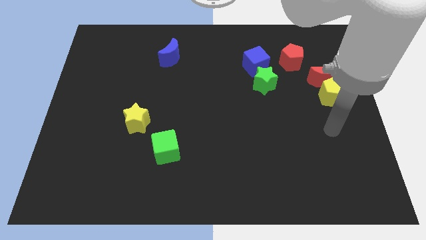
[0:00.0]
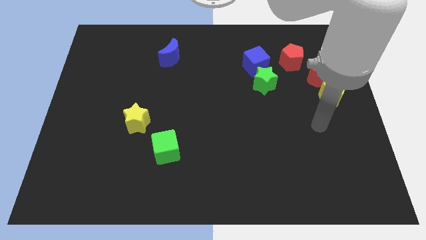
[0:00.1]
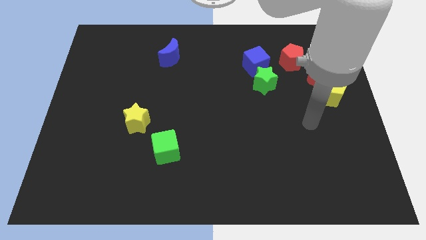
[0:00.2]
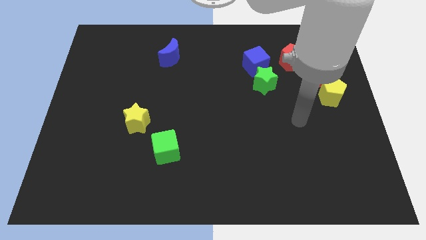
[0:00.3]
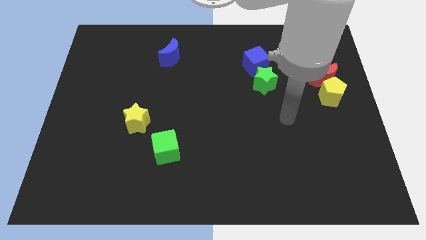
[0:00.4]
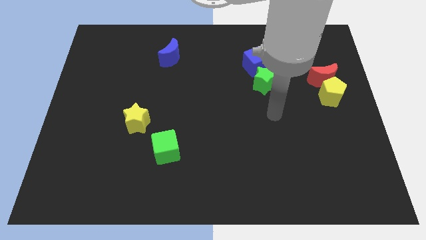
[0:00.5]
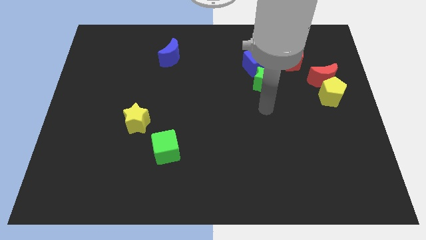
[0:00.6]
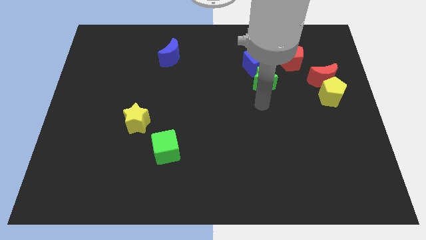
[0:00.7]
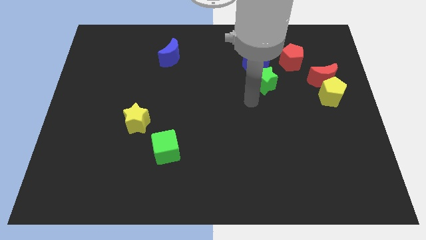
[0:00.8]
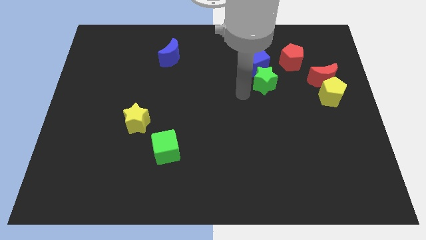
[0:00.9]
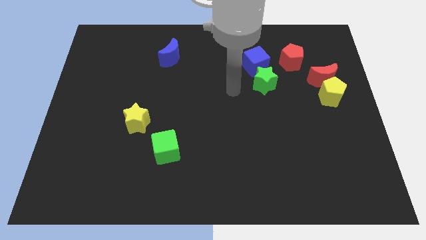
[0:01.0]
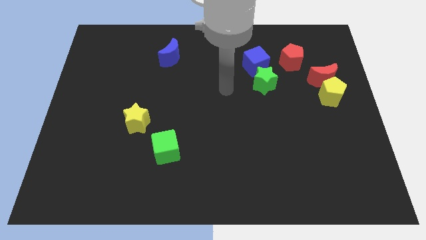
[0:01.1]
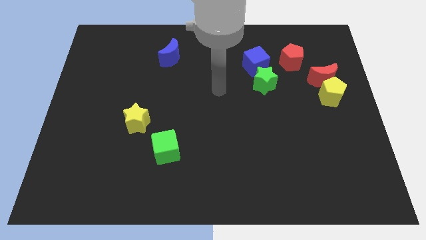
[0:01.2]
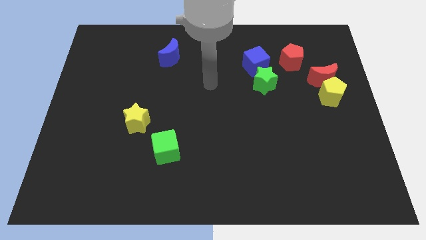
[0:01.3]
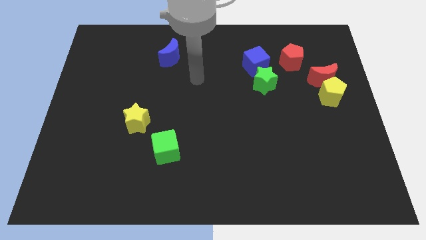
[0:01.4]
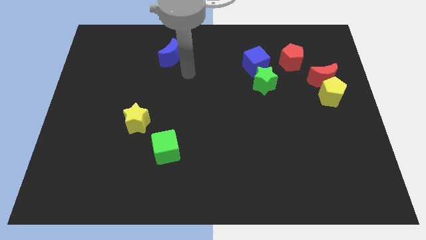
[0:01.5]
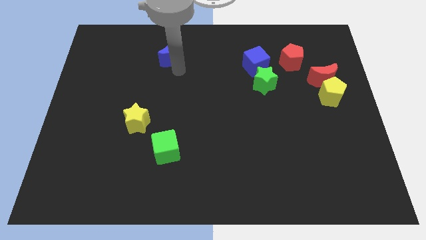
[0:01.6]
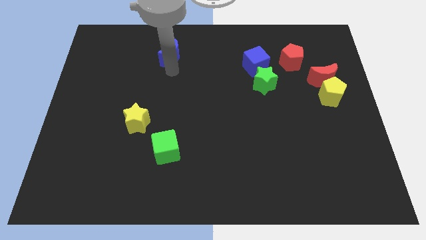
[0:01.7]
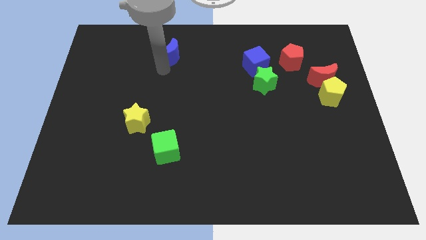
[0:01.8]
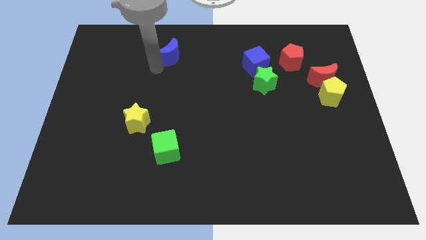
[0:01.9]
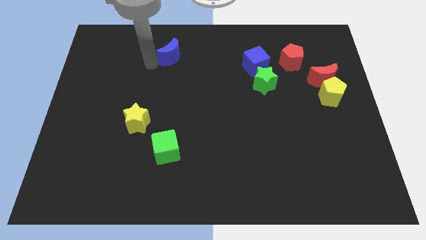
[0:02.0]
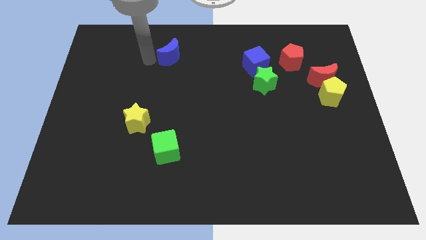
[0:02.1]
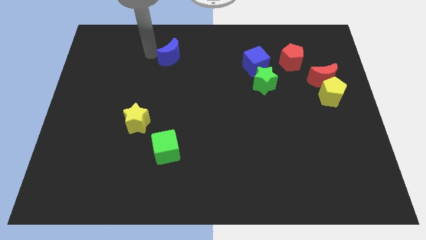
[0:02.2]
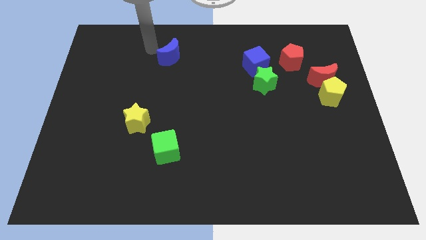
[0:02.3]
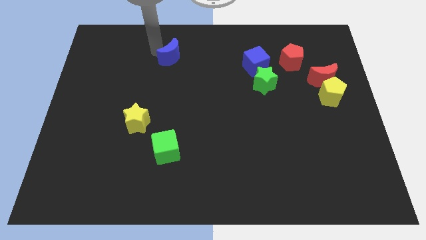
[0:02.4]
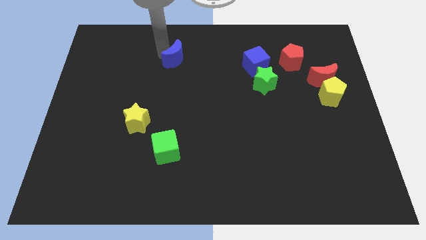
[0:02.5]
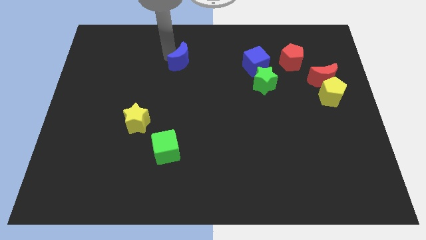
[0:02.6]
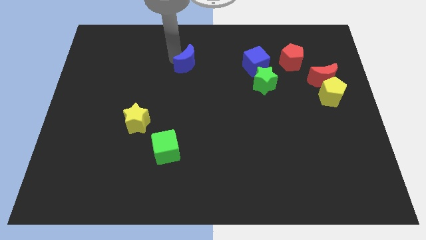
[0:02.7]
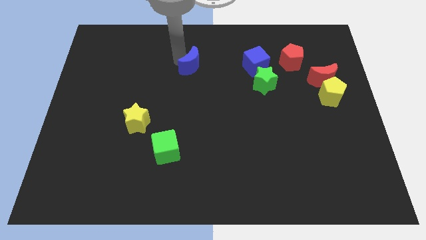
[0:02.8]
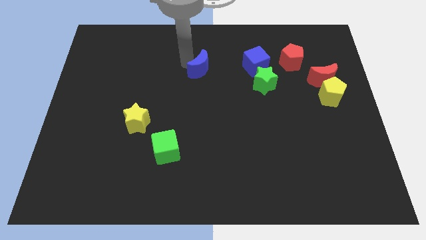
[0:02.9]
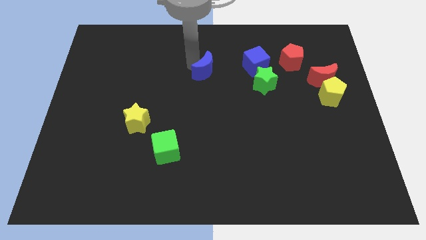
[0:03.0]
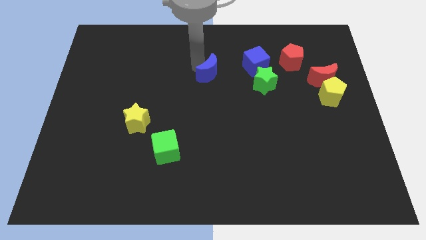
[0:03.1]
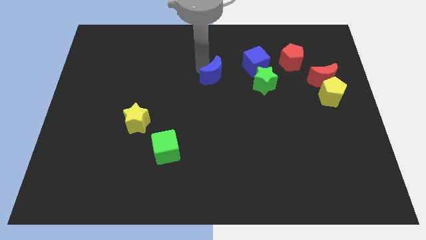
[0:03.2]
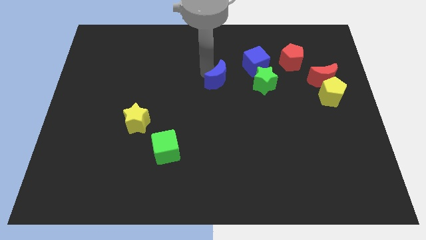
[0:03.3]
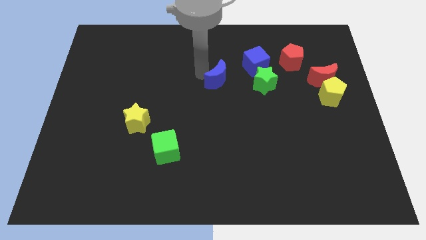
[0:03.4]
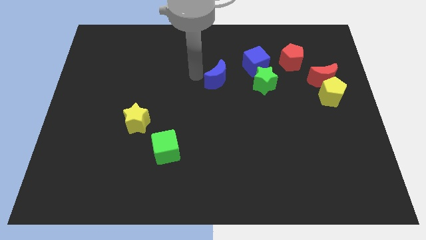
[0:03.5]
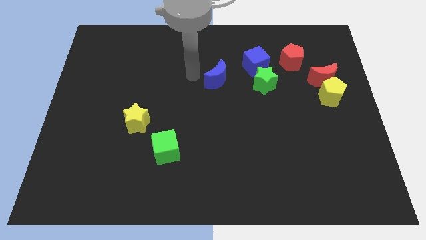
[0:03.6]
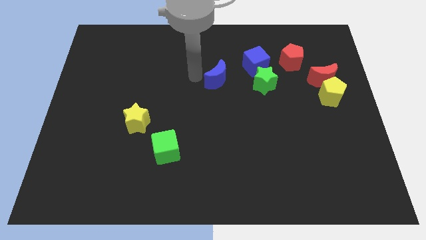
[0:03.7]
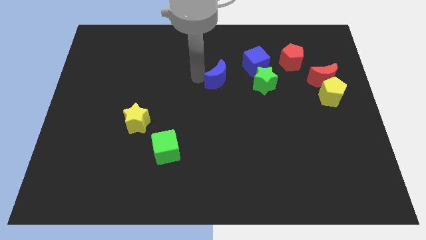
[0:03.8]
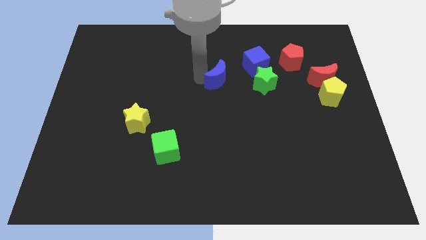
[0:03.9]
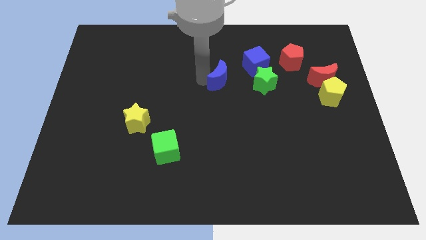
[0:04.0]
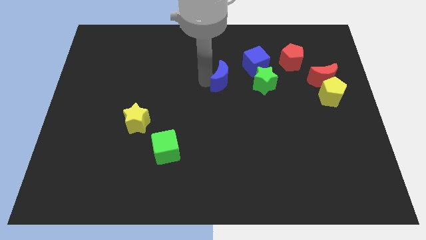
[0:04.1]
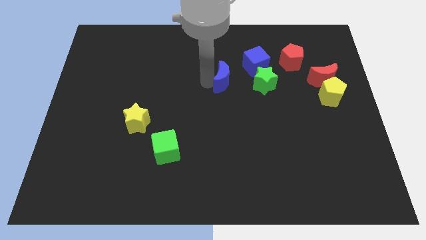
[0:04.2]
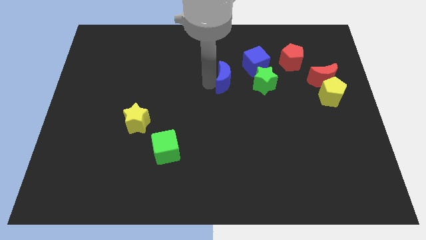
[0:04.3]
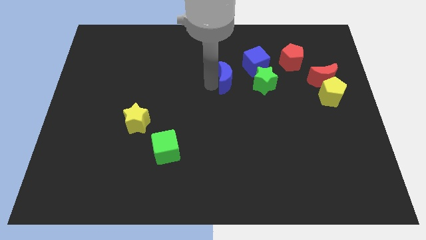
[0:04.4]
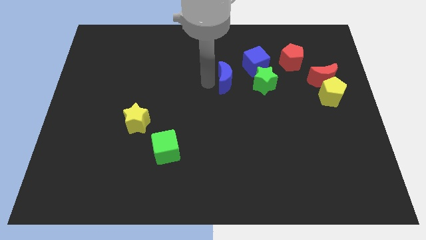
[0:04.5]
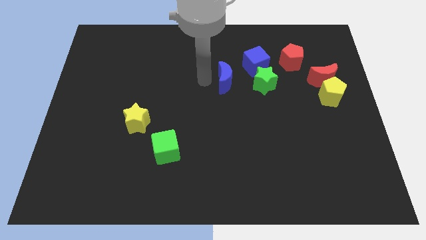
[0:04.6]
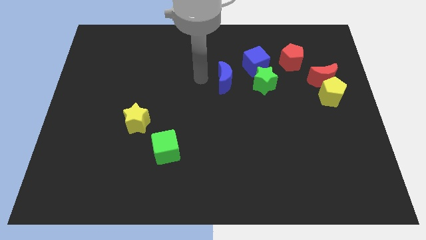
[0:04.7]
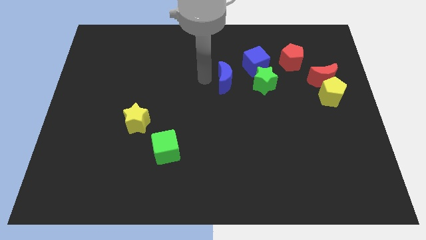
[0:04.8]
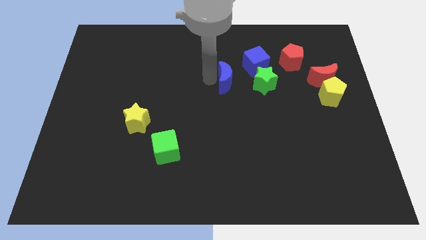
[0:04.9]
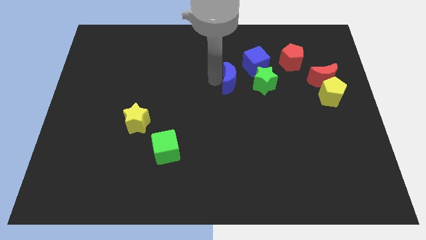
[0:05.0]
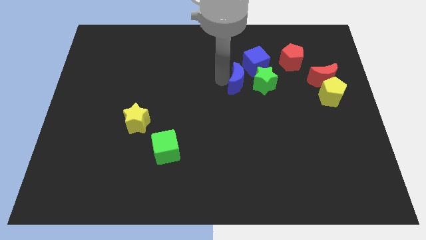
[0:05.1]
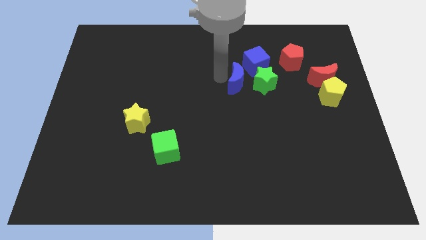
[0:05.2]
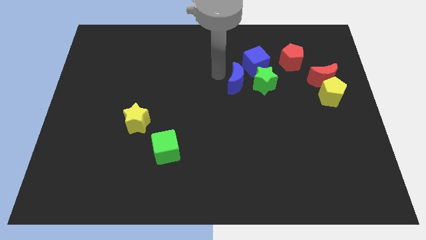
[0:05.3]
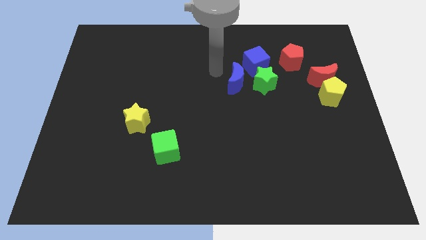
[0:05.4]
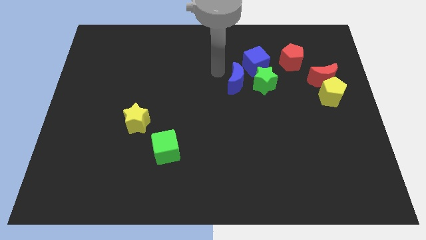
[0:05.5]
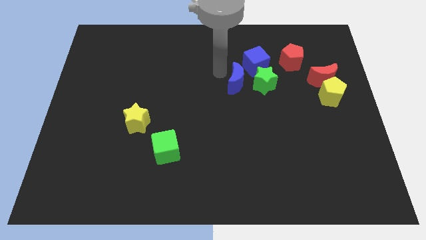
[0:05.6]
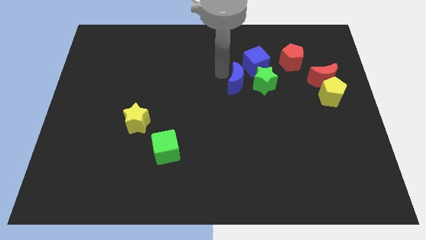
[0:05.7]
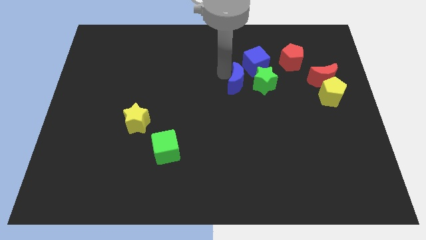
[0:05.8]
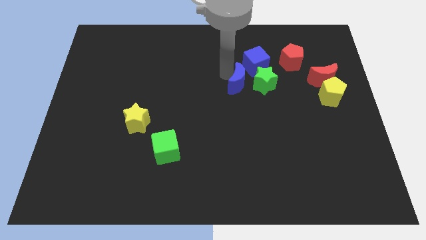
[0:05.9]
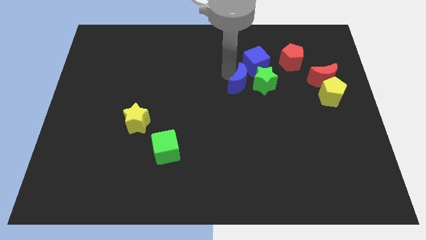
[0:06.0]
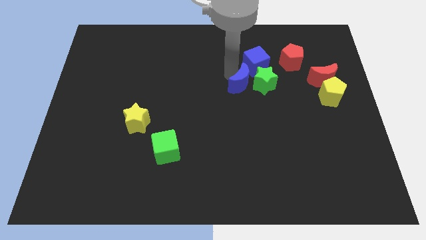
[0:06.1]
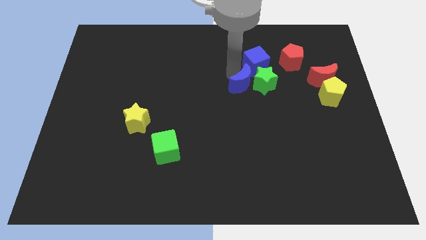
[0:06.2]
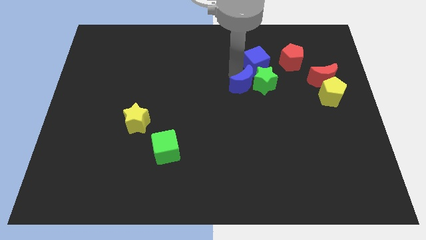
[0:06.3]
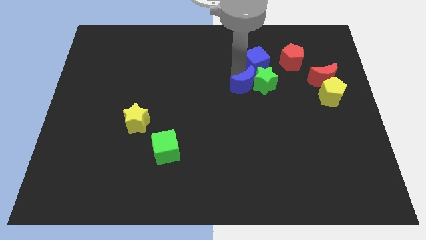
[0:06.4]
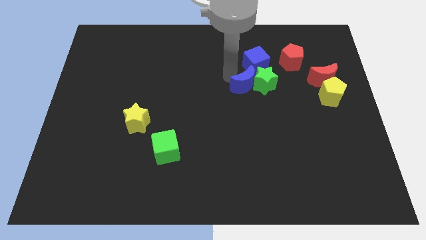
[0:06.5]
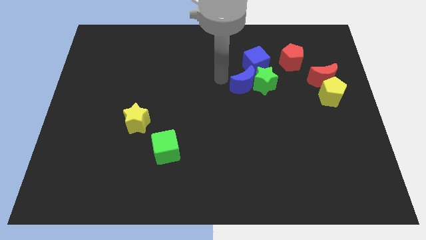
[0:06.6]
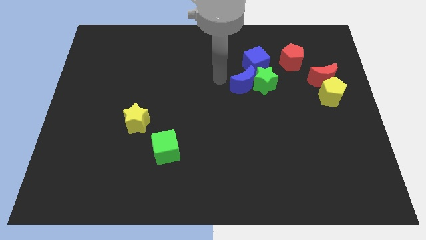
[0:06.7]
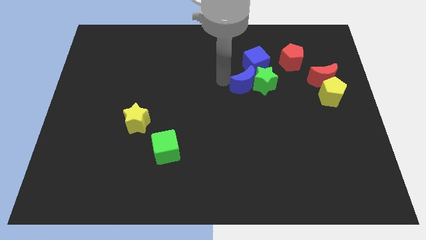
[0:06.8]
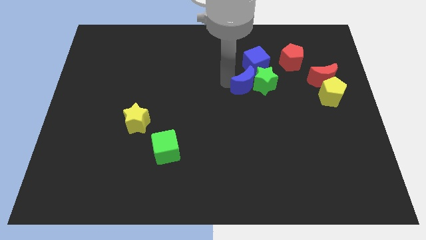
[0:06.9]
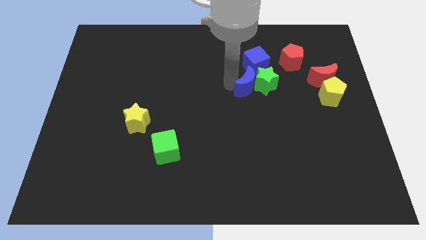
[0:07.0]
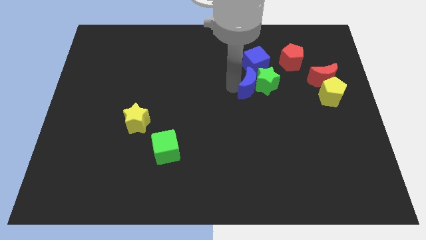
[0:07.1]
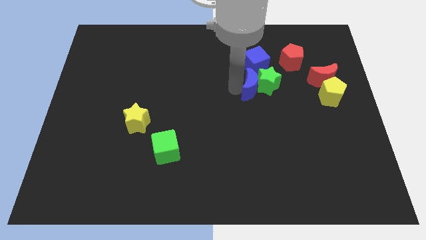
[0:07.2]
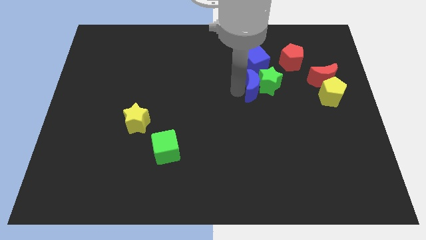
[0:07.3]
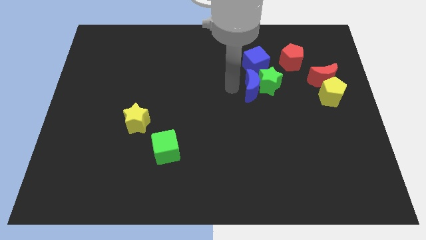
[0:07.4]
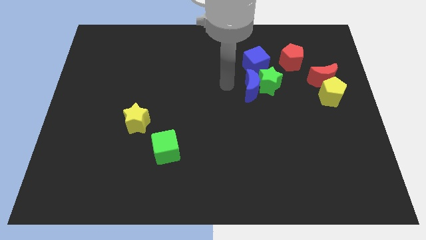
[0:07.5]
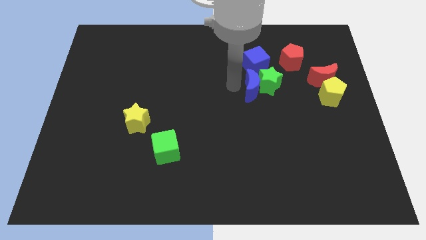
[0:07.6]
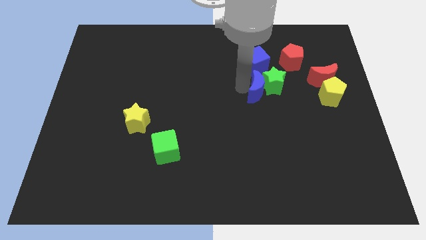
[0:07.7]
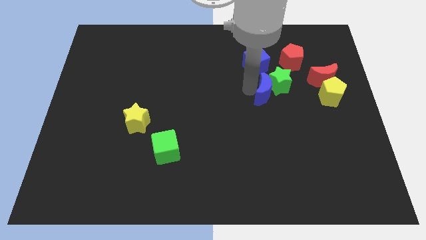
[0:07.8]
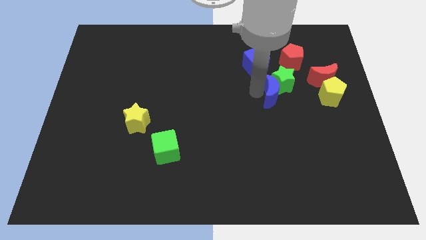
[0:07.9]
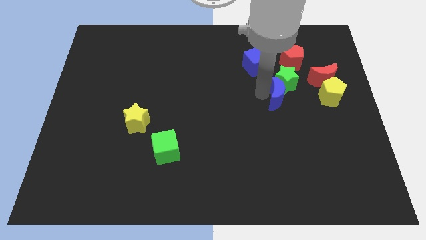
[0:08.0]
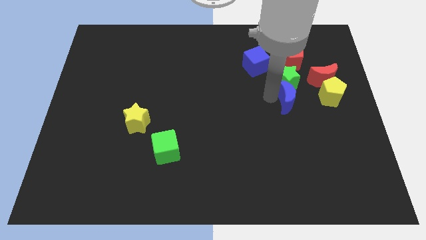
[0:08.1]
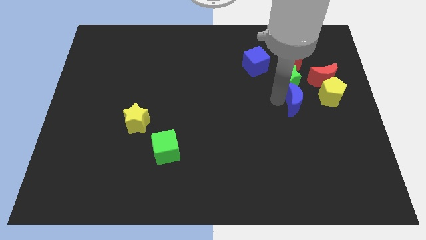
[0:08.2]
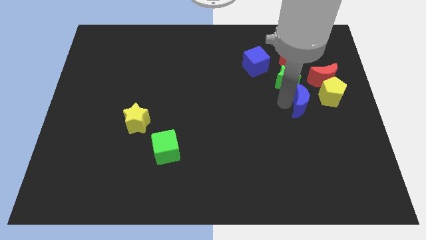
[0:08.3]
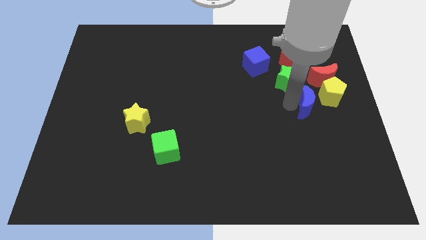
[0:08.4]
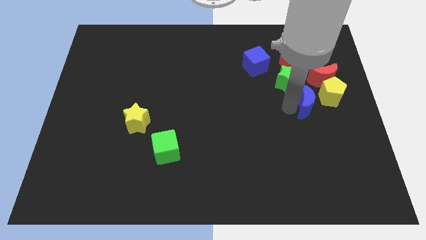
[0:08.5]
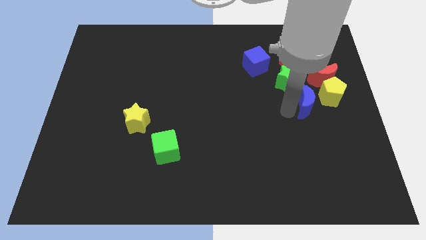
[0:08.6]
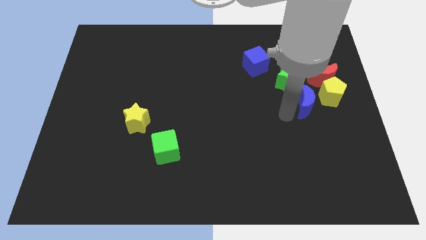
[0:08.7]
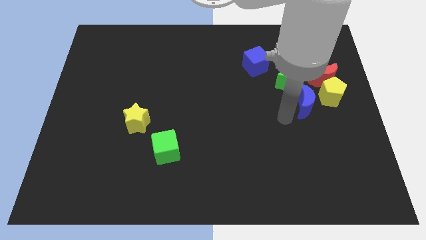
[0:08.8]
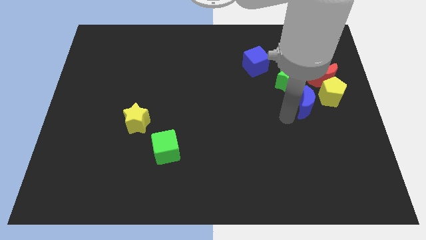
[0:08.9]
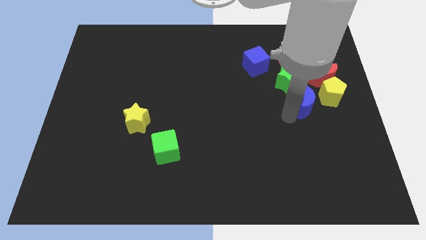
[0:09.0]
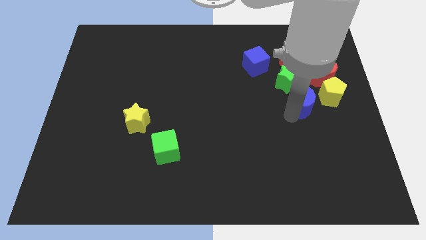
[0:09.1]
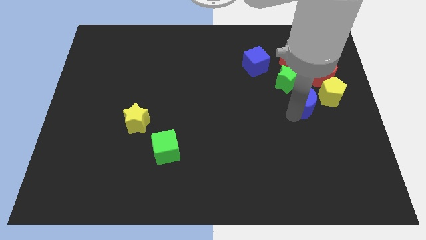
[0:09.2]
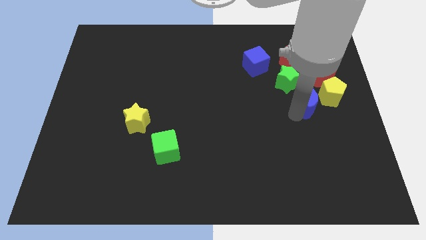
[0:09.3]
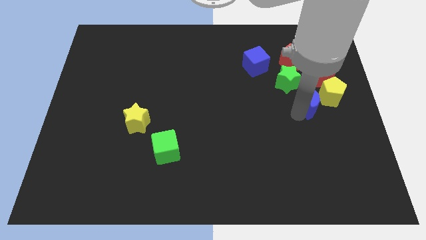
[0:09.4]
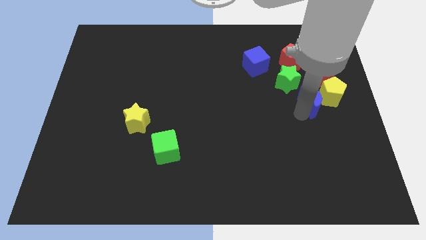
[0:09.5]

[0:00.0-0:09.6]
push the blue moon next to the yellow pentagon
